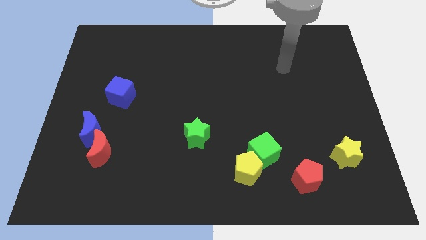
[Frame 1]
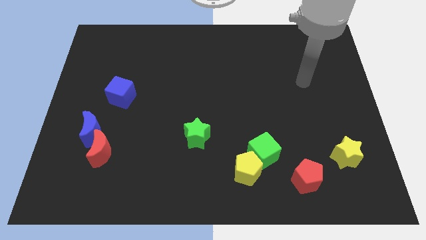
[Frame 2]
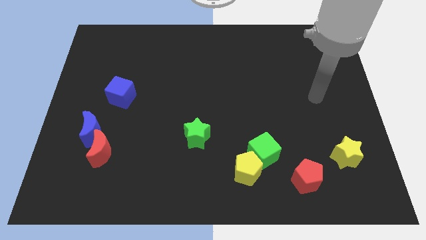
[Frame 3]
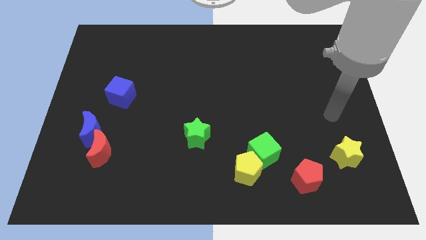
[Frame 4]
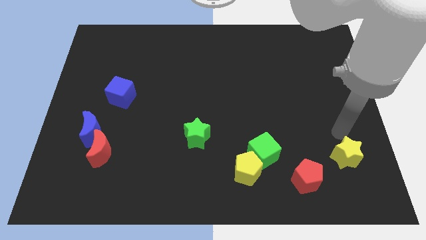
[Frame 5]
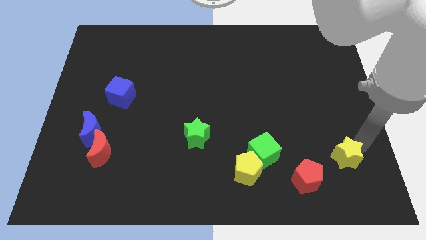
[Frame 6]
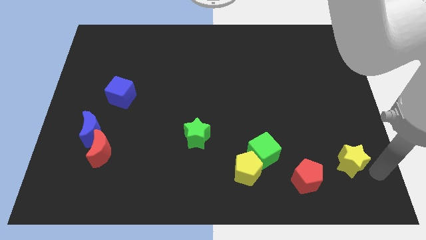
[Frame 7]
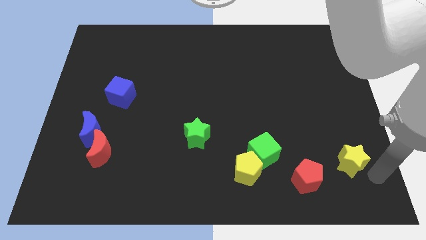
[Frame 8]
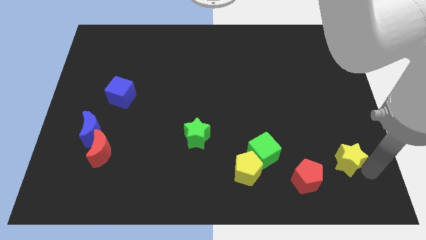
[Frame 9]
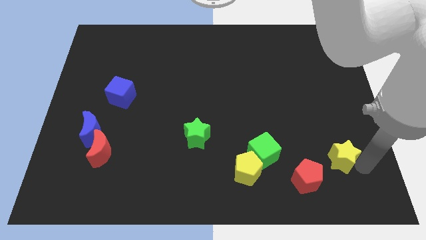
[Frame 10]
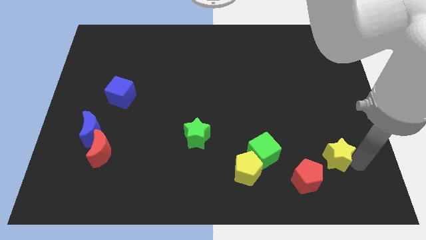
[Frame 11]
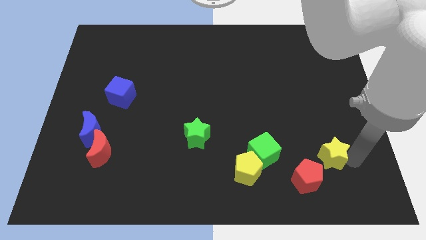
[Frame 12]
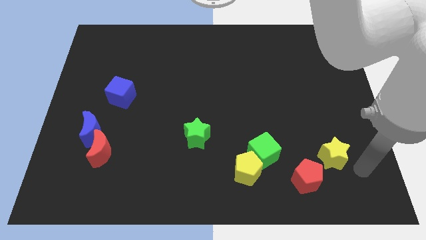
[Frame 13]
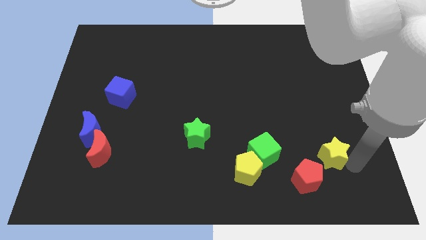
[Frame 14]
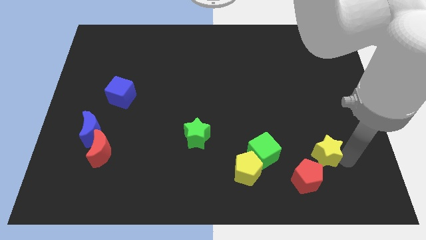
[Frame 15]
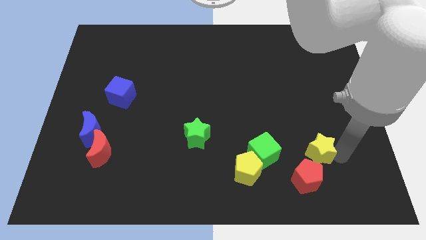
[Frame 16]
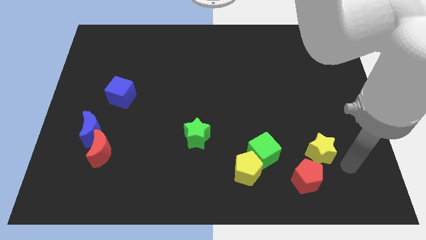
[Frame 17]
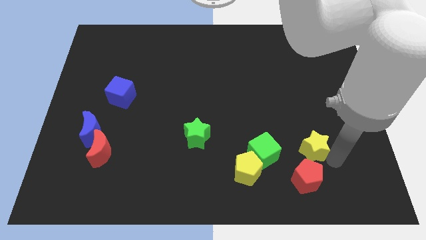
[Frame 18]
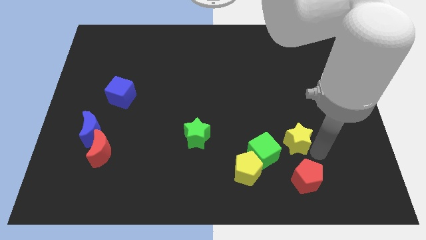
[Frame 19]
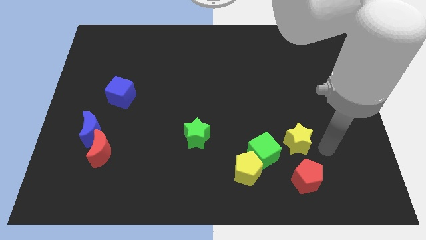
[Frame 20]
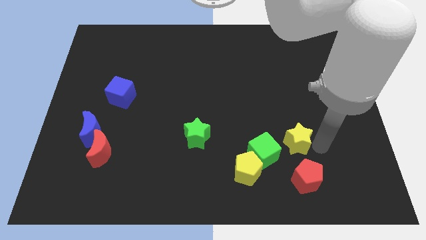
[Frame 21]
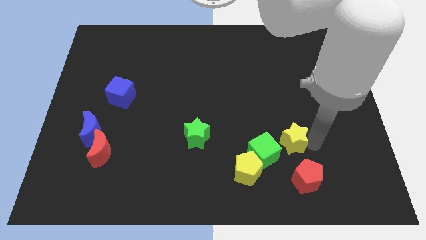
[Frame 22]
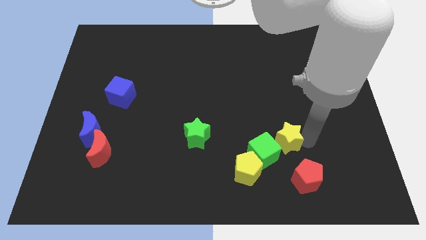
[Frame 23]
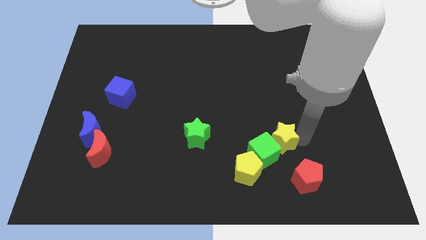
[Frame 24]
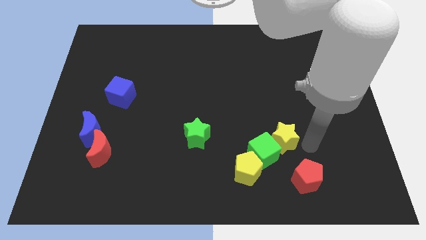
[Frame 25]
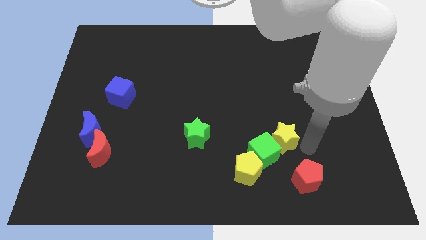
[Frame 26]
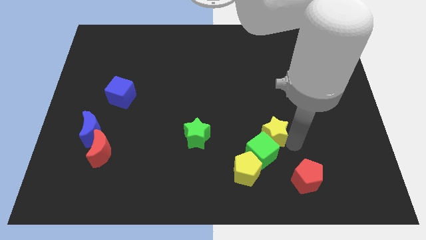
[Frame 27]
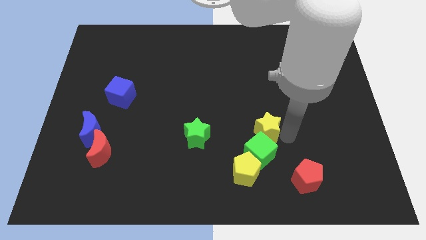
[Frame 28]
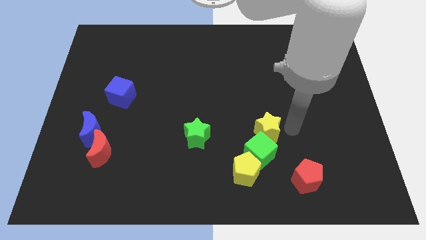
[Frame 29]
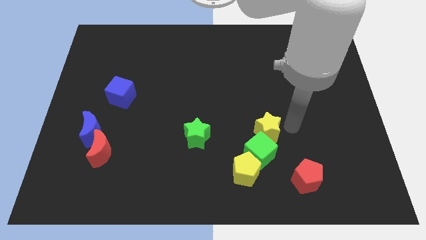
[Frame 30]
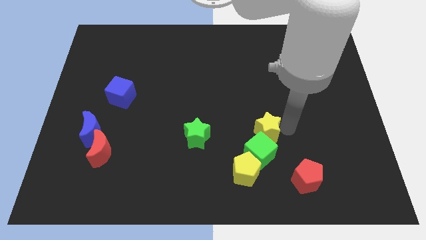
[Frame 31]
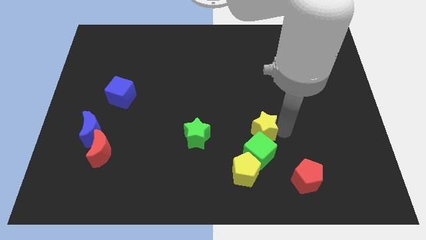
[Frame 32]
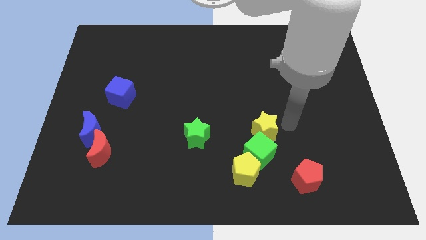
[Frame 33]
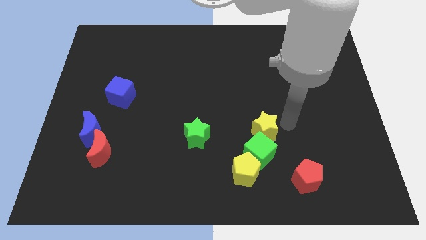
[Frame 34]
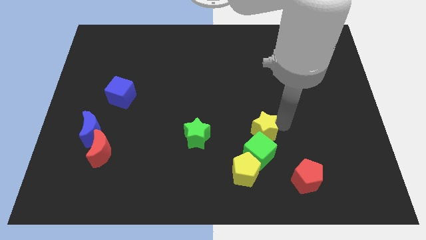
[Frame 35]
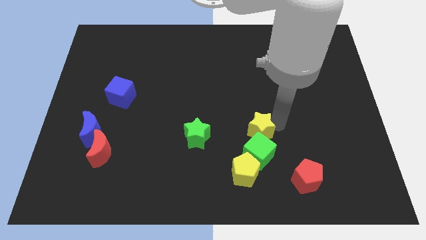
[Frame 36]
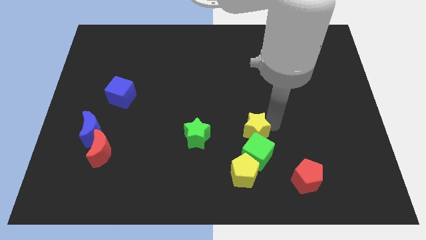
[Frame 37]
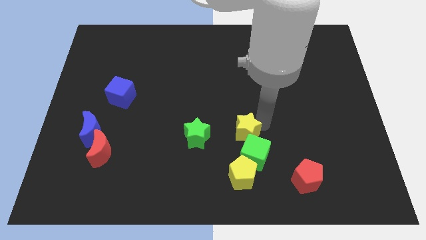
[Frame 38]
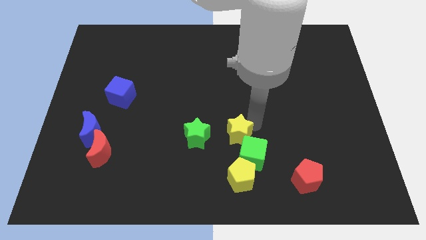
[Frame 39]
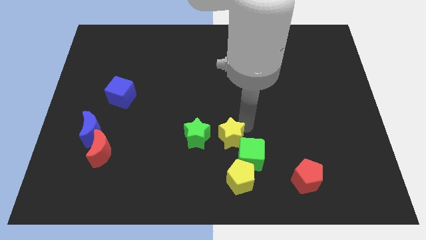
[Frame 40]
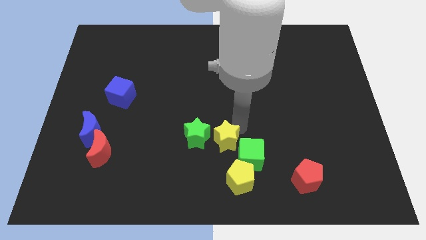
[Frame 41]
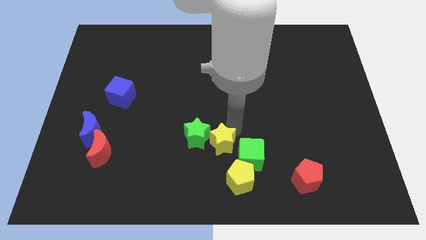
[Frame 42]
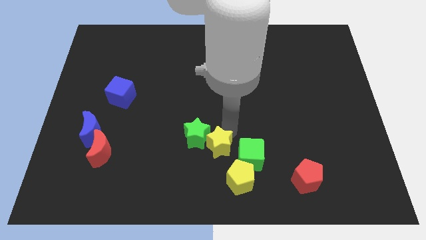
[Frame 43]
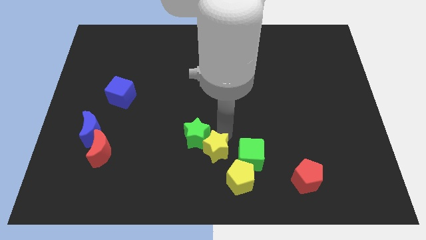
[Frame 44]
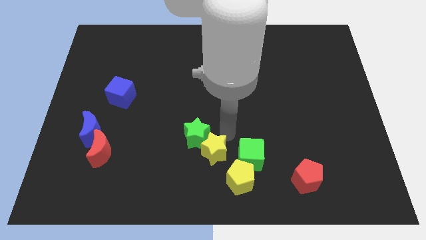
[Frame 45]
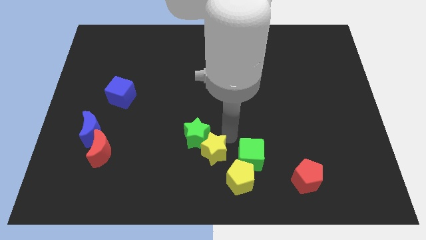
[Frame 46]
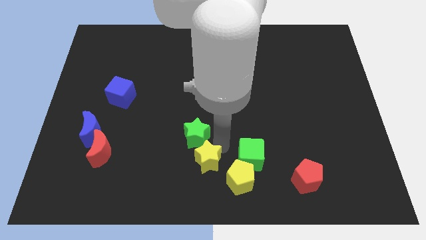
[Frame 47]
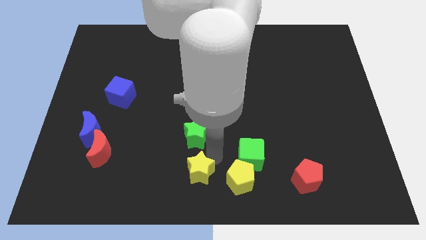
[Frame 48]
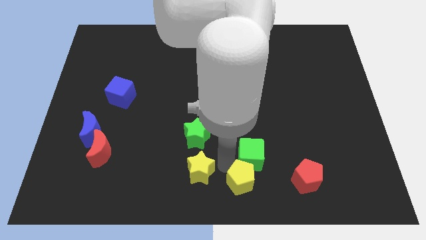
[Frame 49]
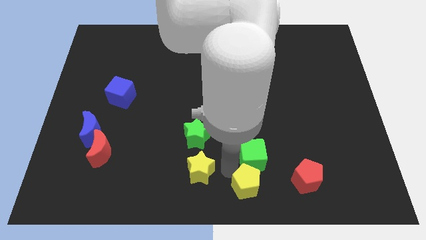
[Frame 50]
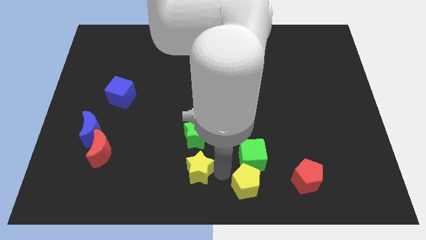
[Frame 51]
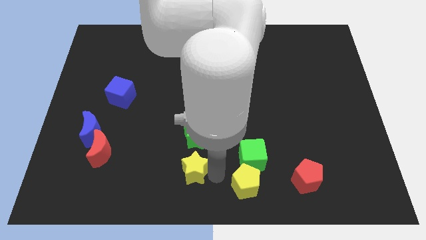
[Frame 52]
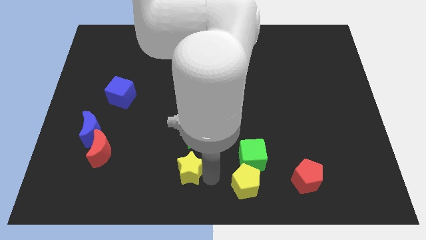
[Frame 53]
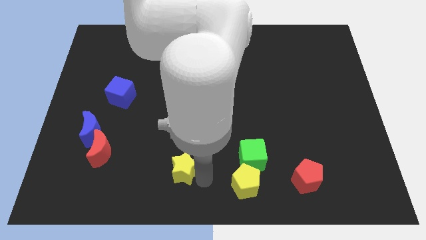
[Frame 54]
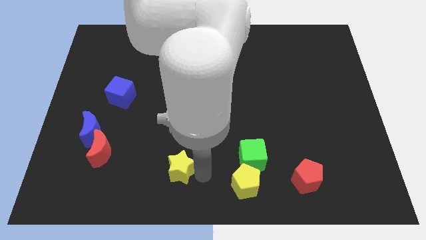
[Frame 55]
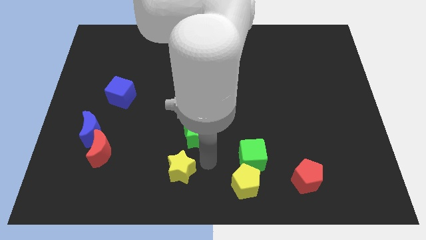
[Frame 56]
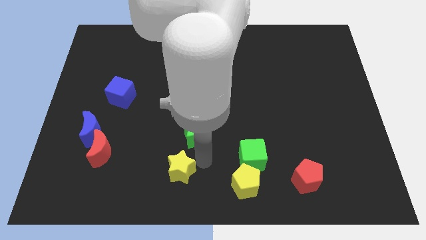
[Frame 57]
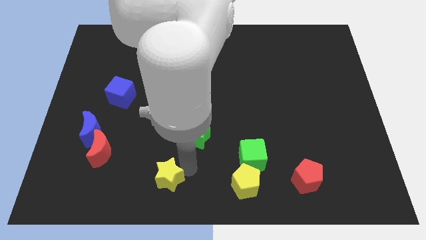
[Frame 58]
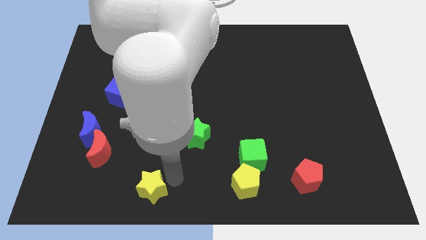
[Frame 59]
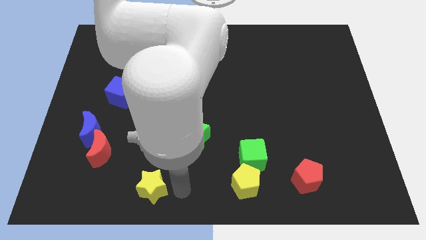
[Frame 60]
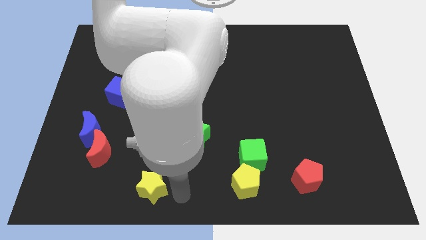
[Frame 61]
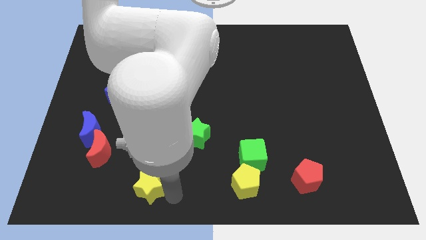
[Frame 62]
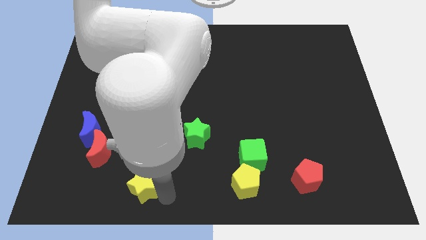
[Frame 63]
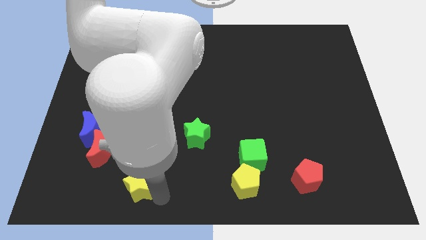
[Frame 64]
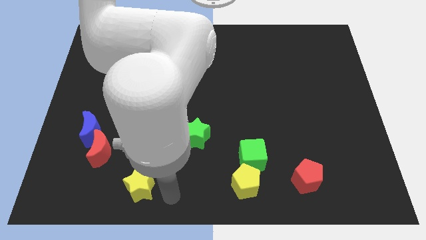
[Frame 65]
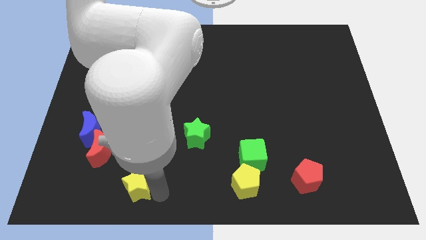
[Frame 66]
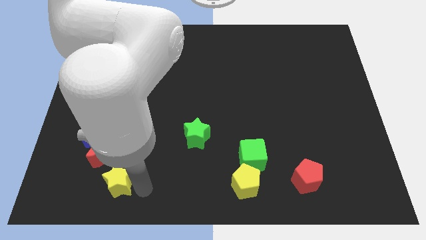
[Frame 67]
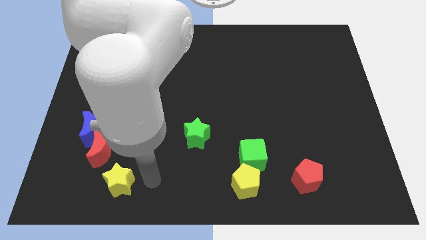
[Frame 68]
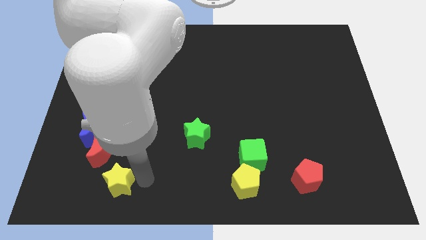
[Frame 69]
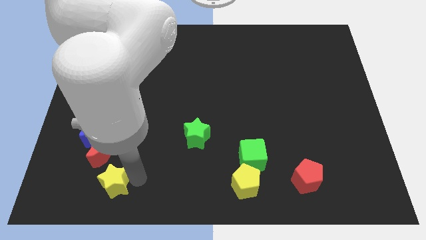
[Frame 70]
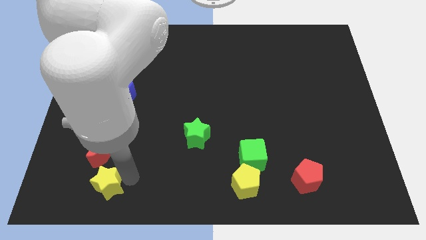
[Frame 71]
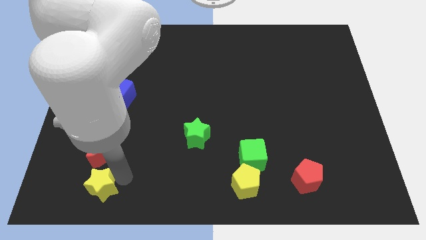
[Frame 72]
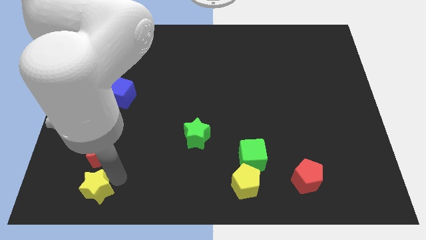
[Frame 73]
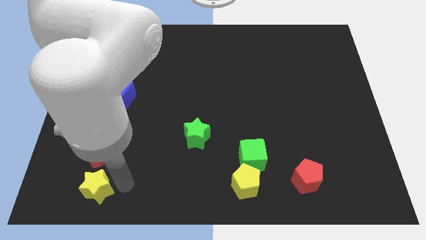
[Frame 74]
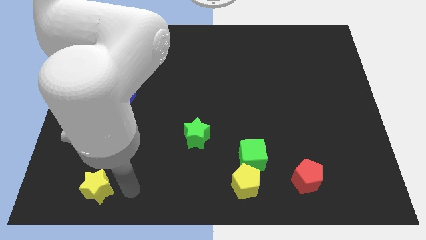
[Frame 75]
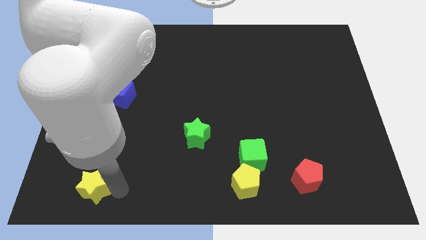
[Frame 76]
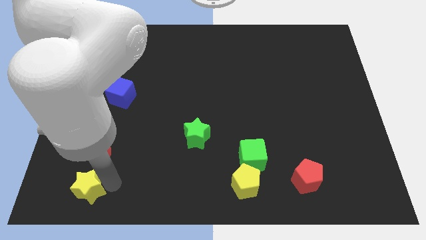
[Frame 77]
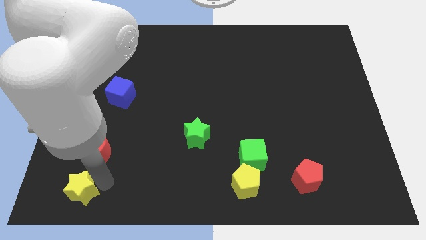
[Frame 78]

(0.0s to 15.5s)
move the yellow star to the bottom left corner
